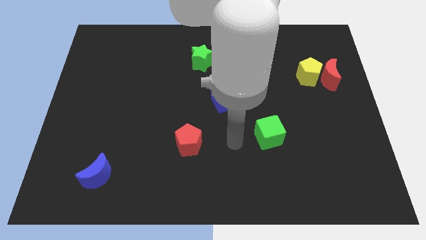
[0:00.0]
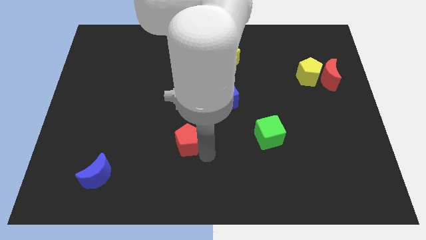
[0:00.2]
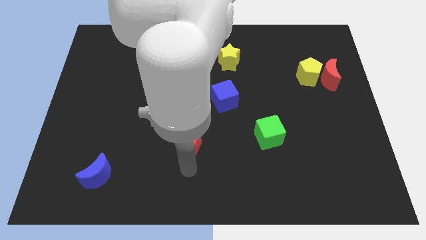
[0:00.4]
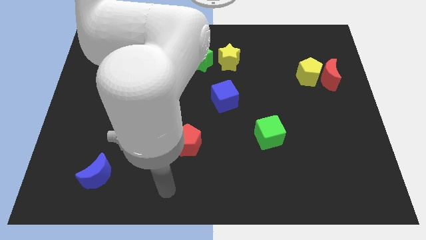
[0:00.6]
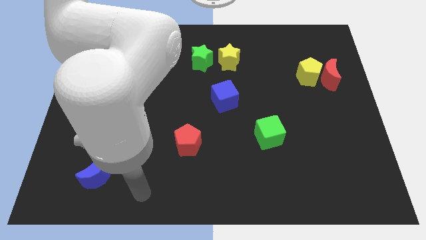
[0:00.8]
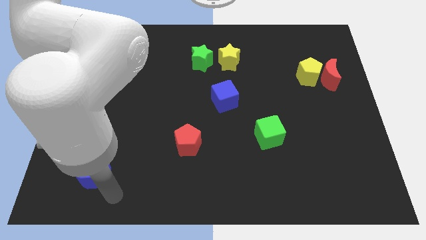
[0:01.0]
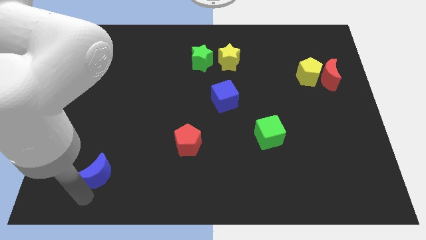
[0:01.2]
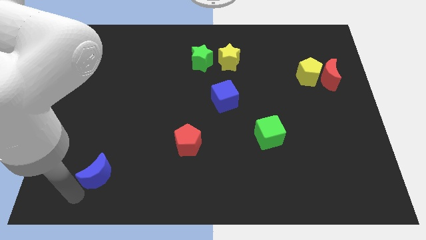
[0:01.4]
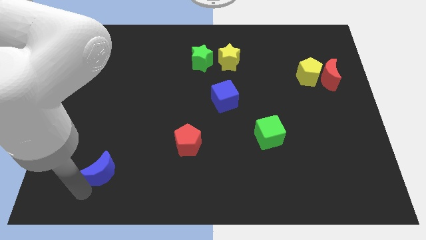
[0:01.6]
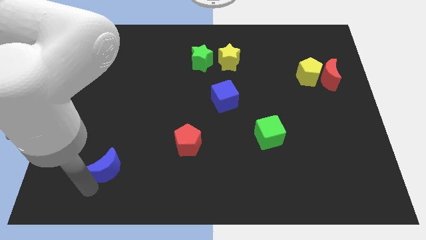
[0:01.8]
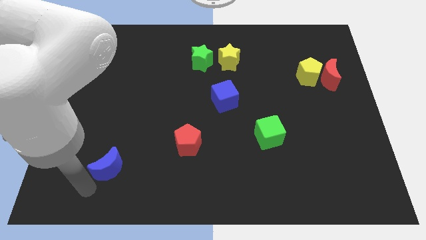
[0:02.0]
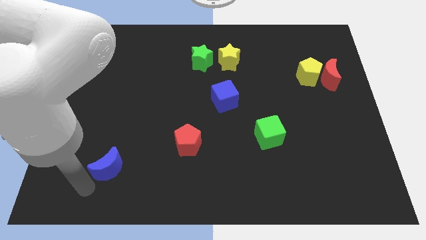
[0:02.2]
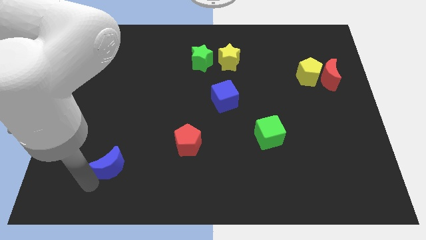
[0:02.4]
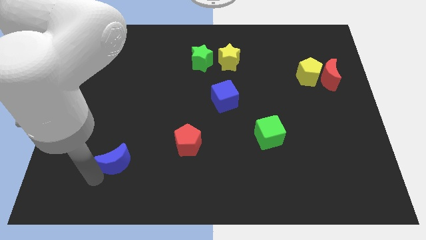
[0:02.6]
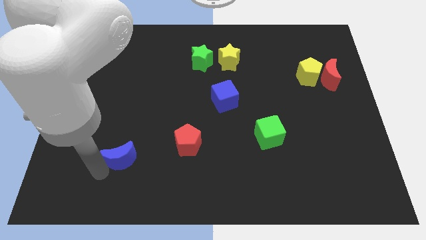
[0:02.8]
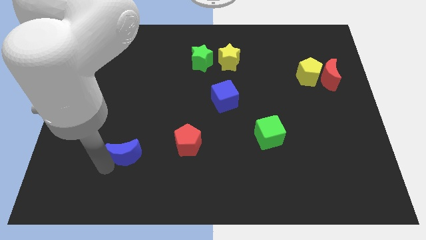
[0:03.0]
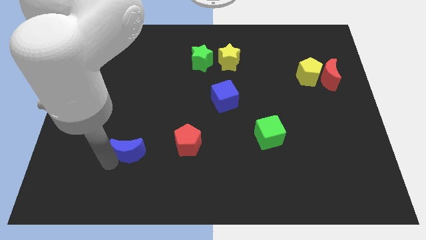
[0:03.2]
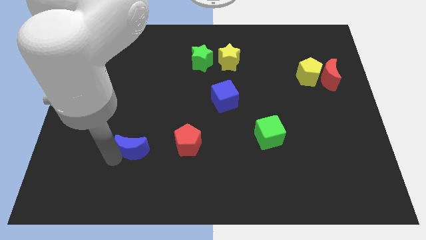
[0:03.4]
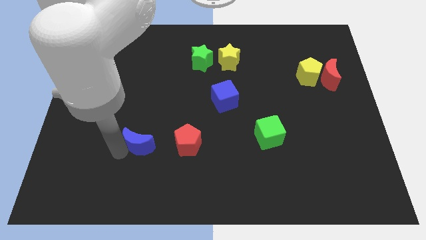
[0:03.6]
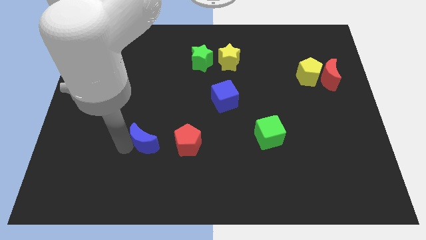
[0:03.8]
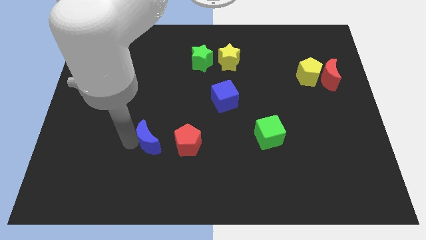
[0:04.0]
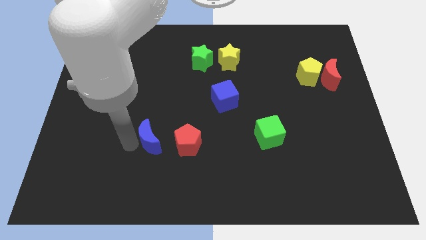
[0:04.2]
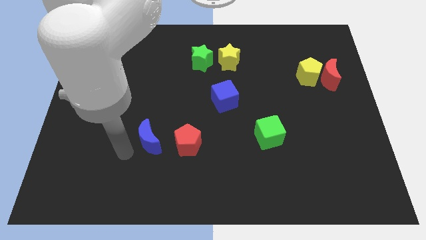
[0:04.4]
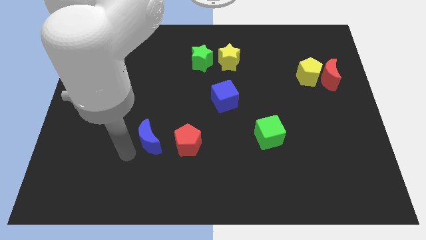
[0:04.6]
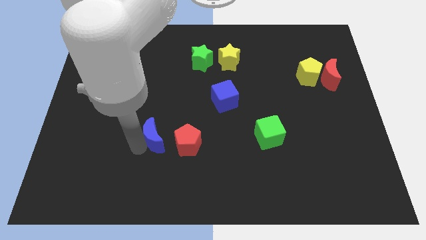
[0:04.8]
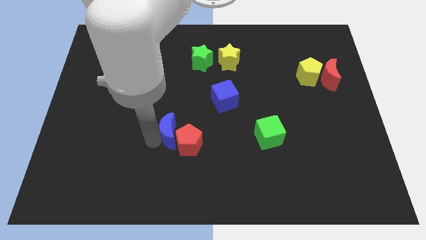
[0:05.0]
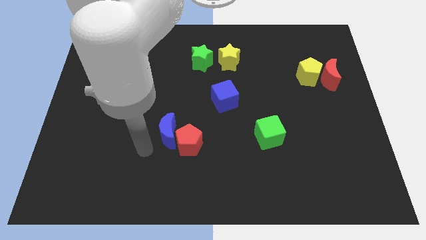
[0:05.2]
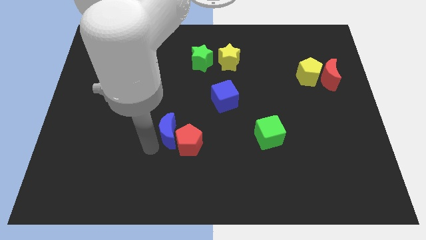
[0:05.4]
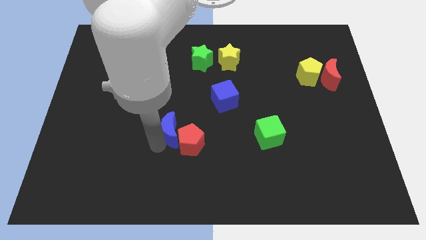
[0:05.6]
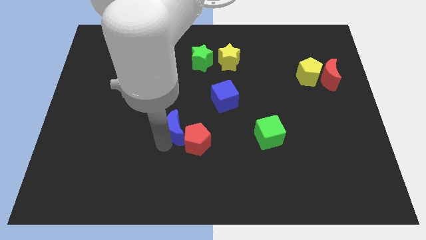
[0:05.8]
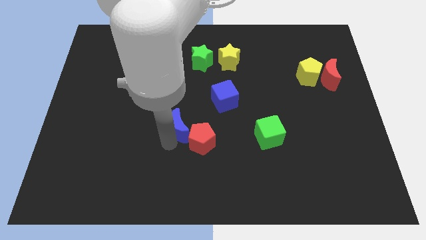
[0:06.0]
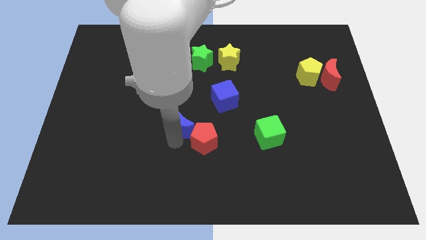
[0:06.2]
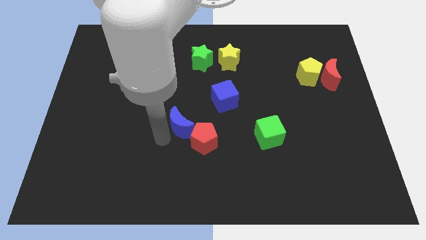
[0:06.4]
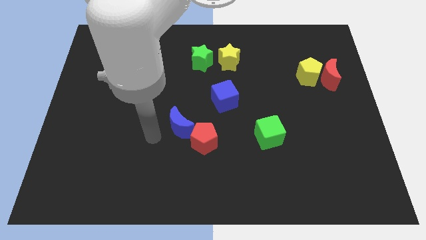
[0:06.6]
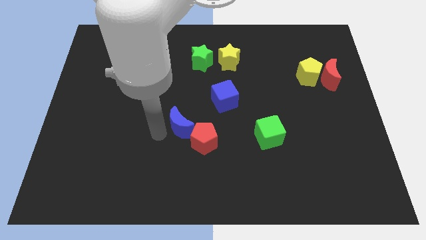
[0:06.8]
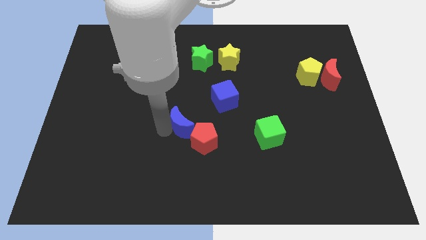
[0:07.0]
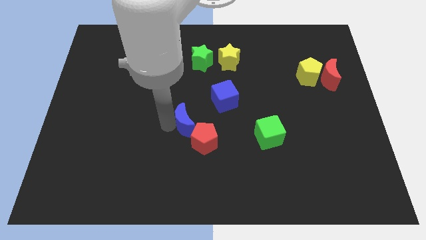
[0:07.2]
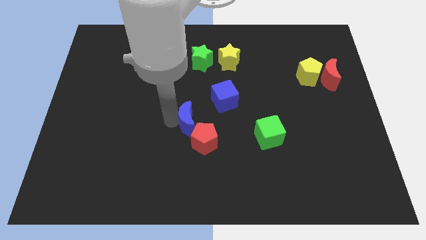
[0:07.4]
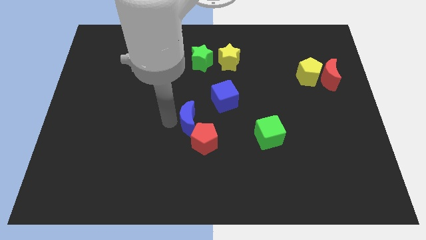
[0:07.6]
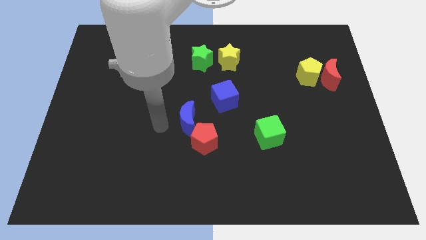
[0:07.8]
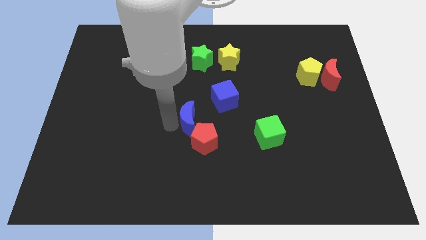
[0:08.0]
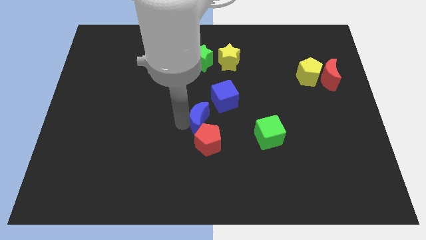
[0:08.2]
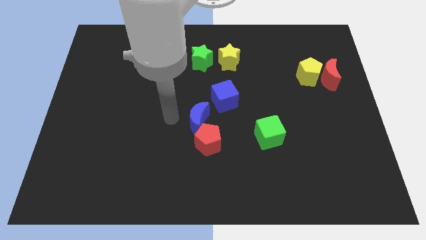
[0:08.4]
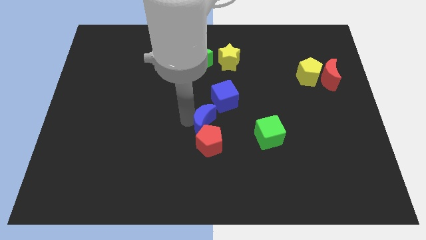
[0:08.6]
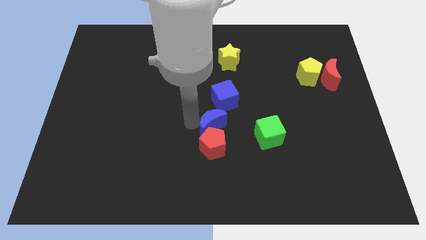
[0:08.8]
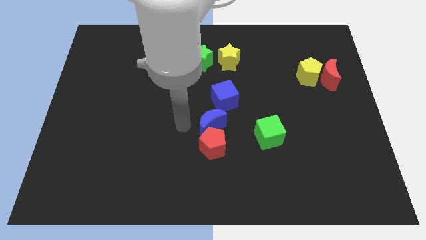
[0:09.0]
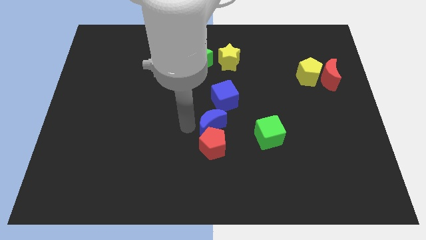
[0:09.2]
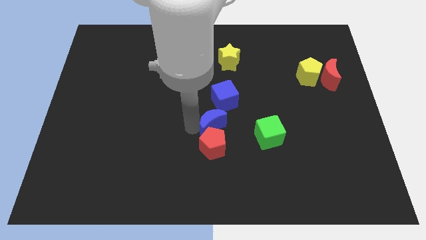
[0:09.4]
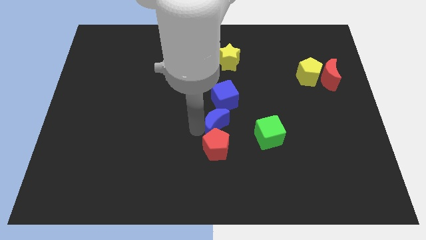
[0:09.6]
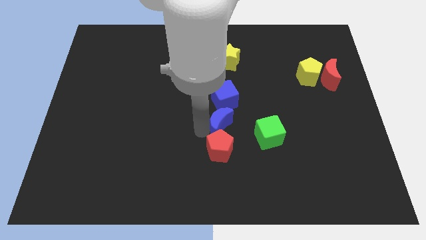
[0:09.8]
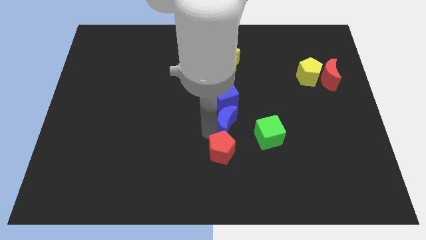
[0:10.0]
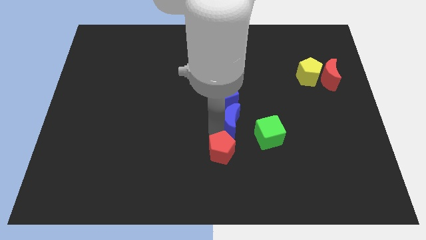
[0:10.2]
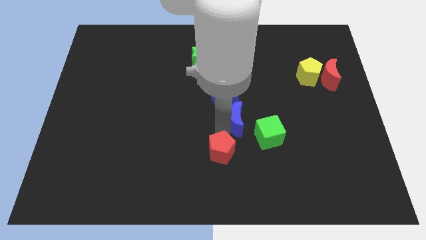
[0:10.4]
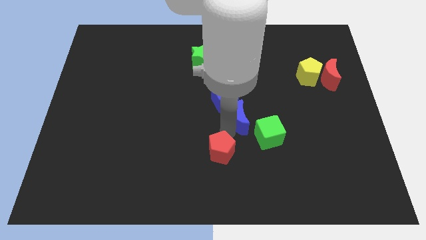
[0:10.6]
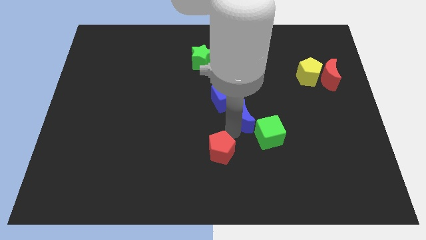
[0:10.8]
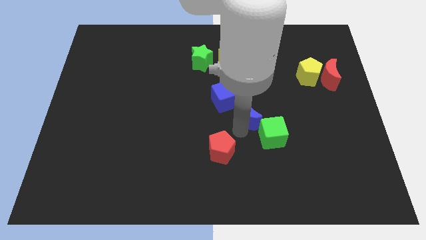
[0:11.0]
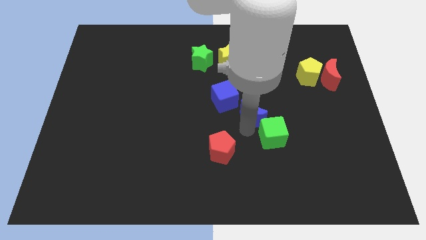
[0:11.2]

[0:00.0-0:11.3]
move the blue moon just right of the blue cube
